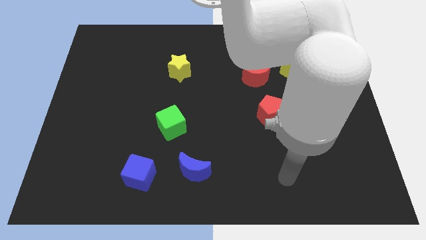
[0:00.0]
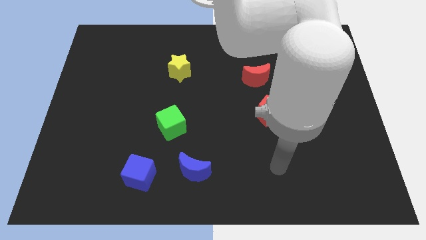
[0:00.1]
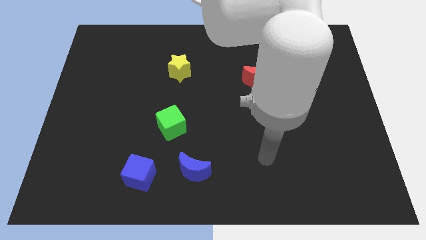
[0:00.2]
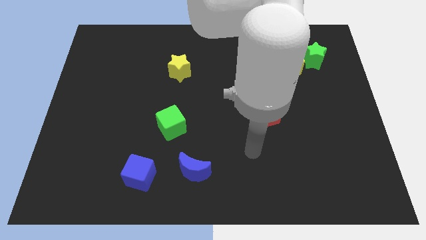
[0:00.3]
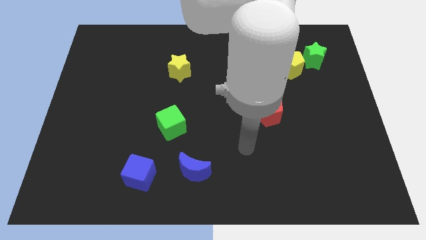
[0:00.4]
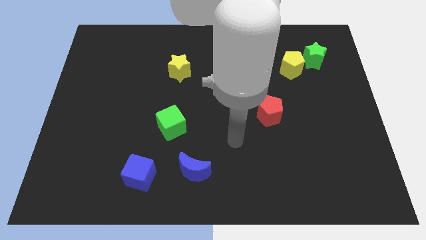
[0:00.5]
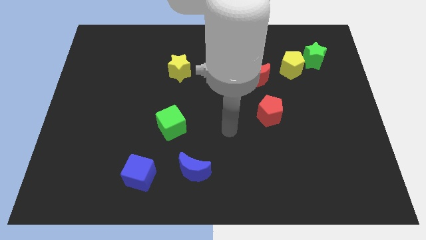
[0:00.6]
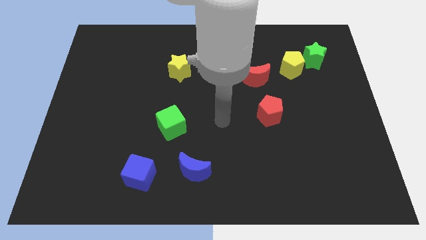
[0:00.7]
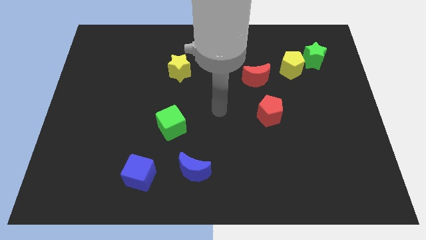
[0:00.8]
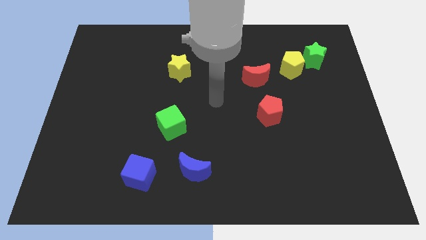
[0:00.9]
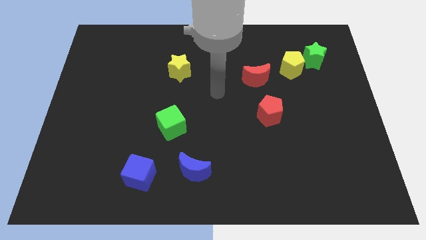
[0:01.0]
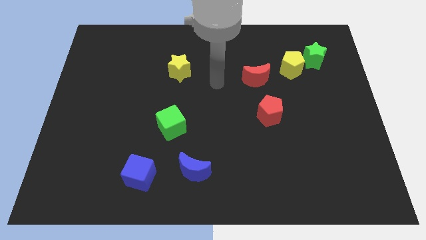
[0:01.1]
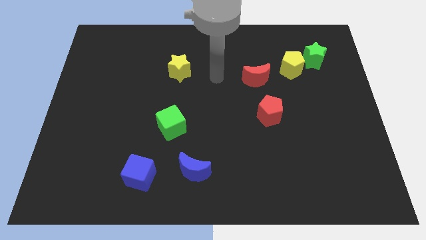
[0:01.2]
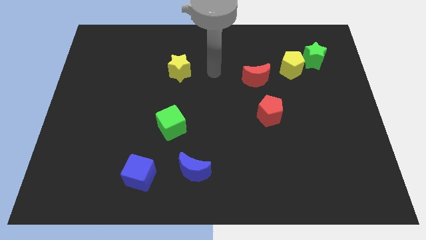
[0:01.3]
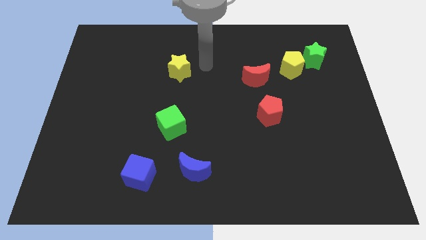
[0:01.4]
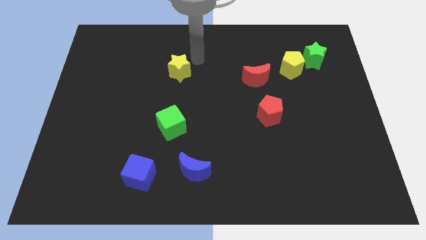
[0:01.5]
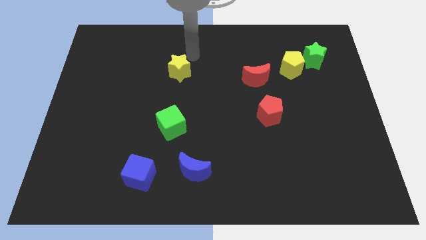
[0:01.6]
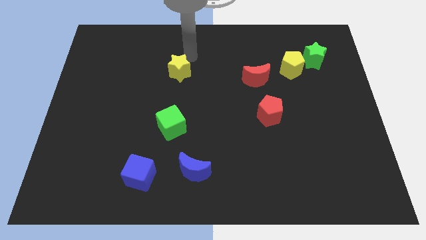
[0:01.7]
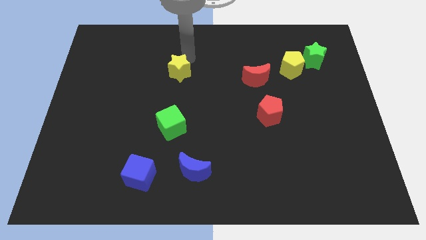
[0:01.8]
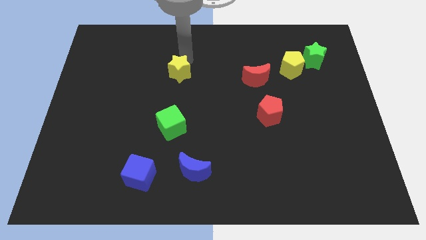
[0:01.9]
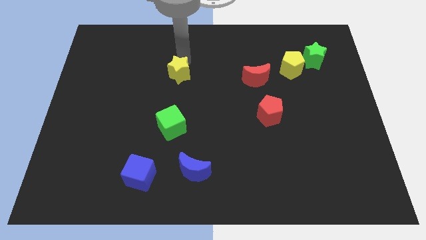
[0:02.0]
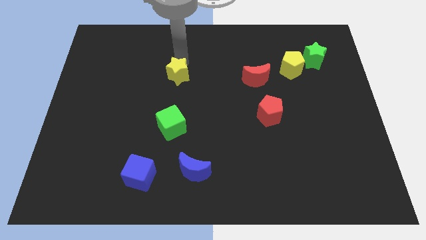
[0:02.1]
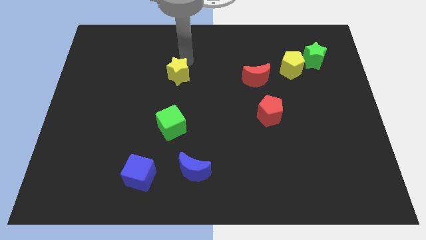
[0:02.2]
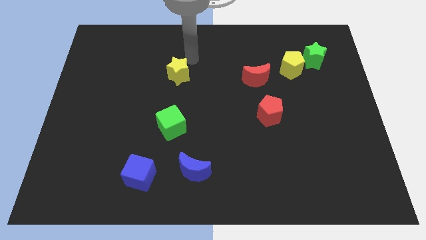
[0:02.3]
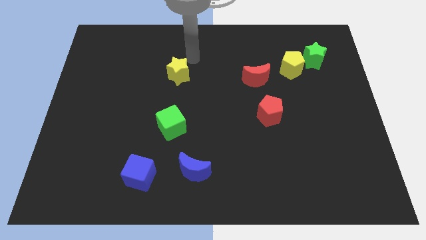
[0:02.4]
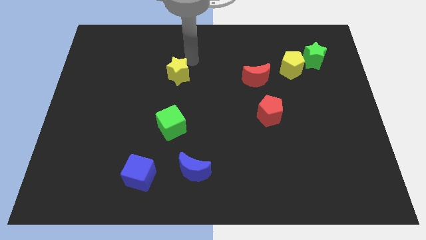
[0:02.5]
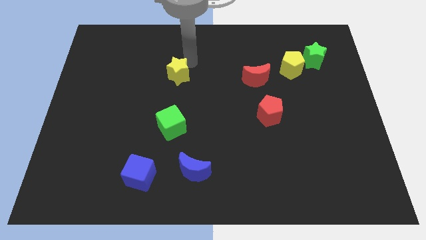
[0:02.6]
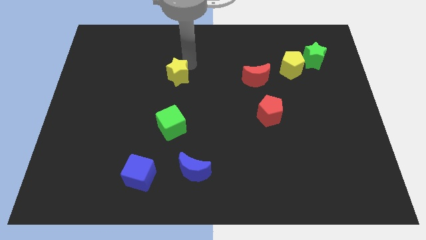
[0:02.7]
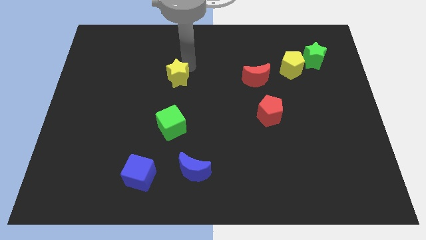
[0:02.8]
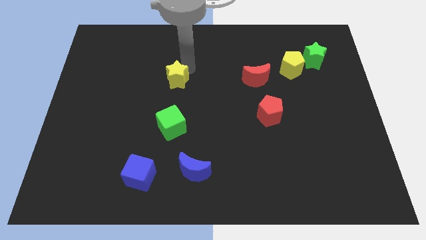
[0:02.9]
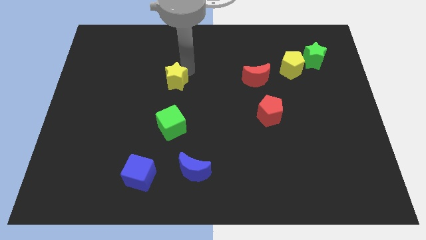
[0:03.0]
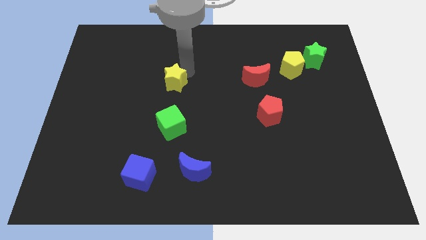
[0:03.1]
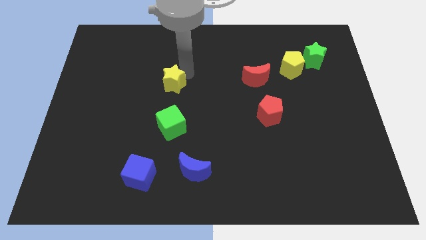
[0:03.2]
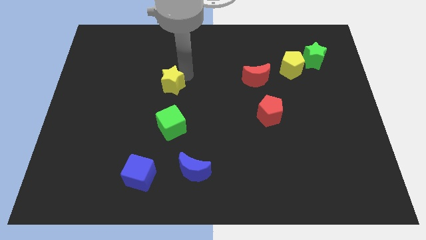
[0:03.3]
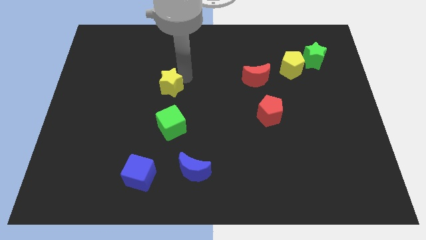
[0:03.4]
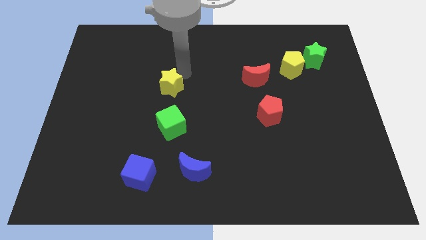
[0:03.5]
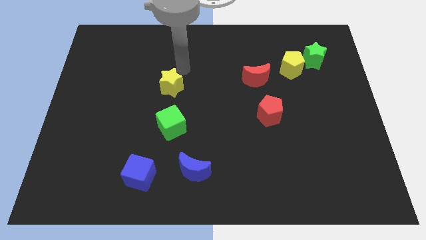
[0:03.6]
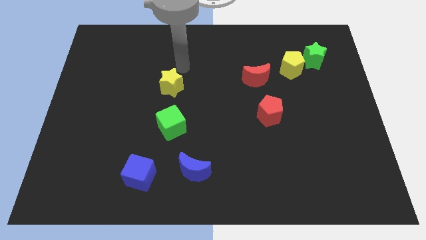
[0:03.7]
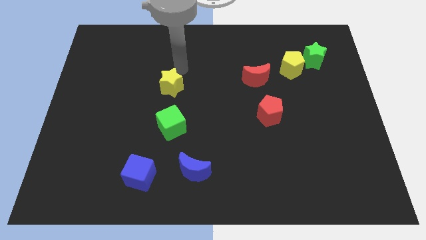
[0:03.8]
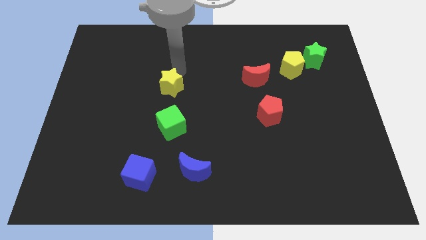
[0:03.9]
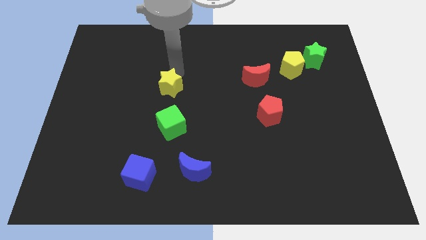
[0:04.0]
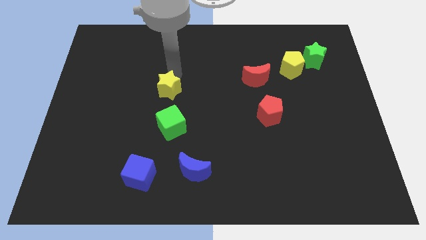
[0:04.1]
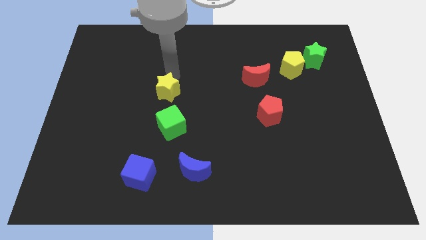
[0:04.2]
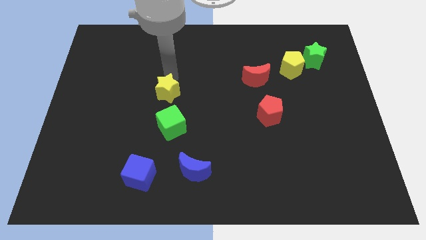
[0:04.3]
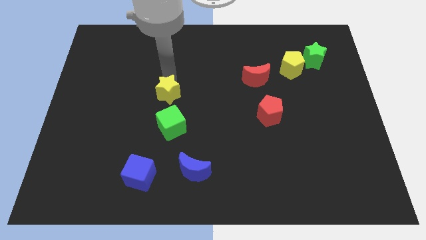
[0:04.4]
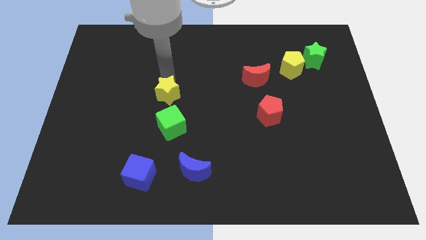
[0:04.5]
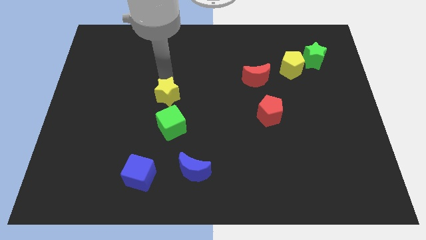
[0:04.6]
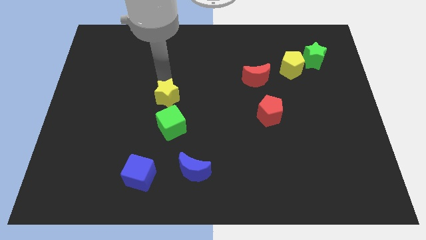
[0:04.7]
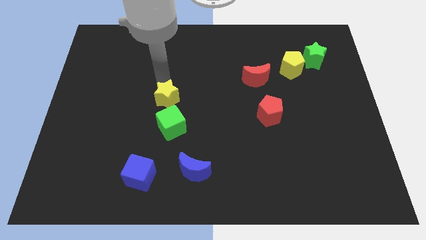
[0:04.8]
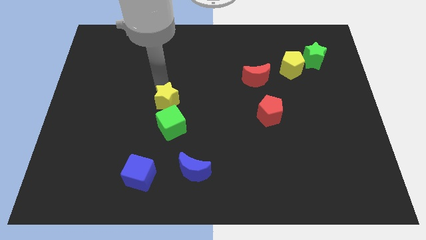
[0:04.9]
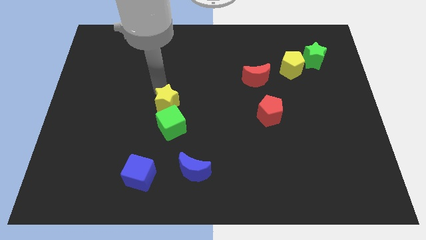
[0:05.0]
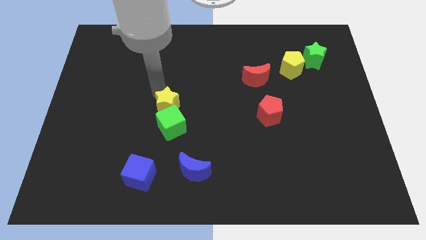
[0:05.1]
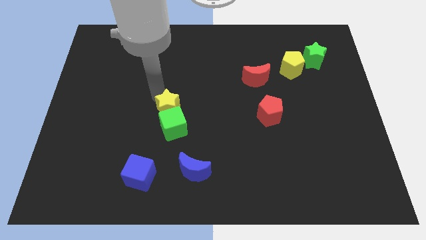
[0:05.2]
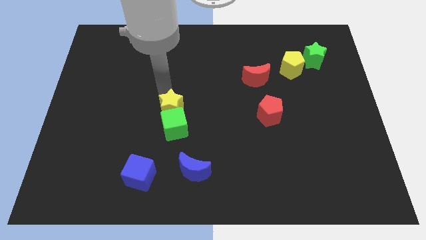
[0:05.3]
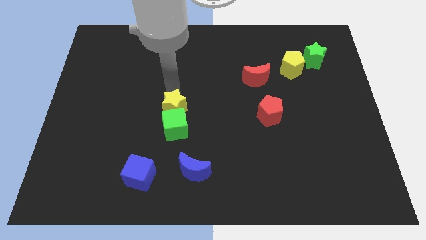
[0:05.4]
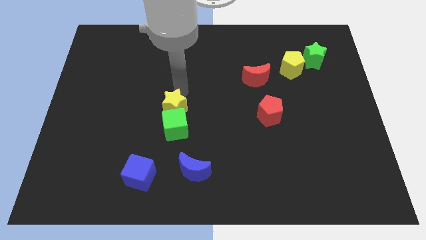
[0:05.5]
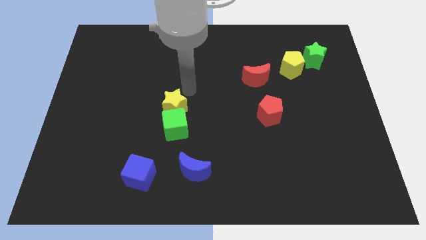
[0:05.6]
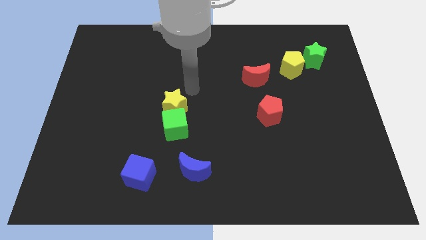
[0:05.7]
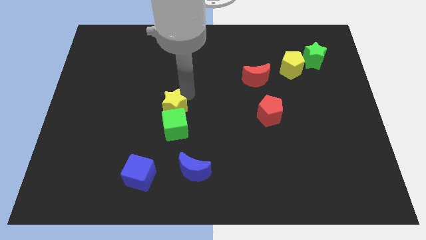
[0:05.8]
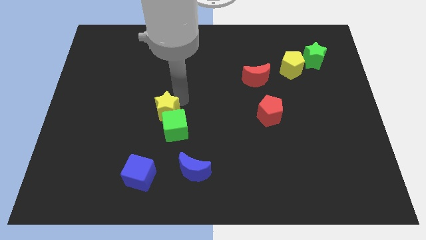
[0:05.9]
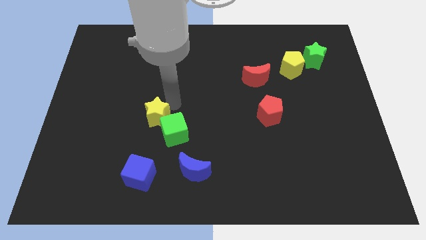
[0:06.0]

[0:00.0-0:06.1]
put the yellow star above the blue cube

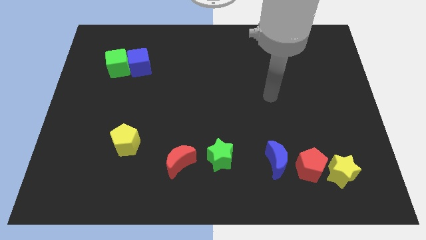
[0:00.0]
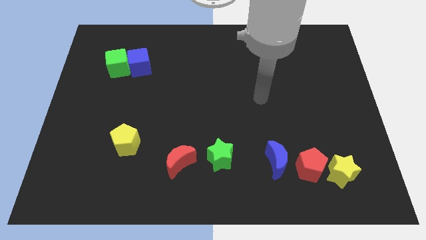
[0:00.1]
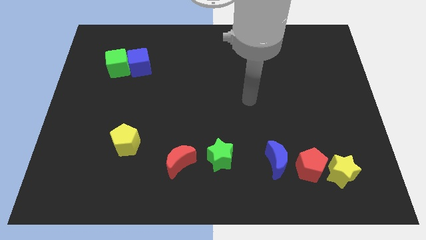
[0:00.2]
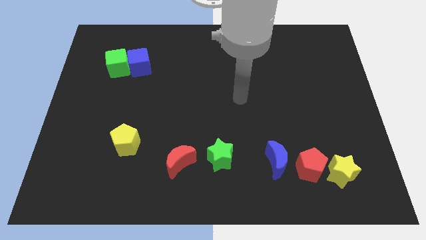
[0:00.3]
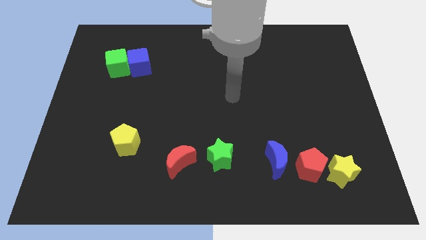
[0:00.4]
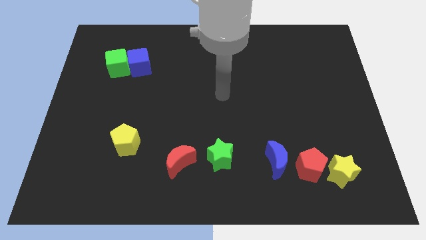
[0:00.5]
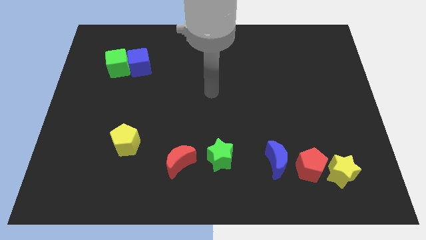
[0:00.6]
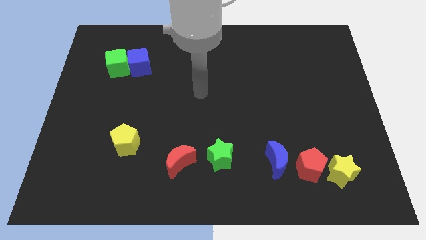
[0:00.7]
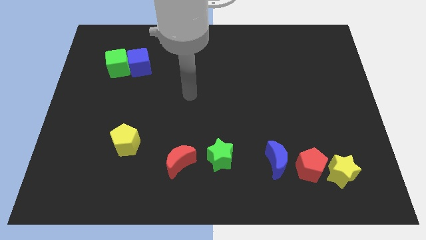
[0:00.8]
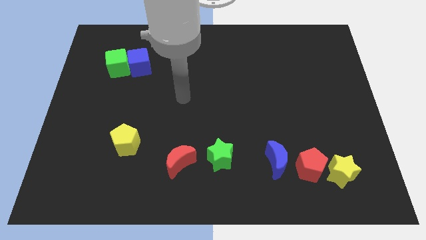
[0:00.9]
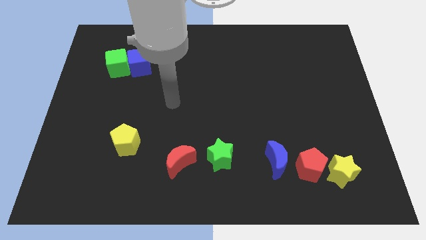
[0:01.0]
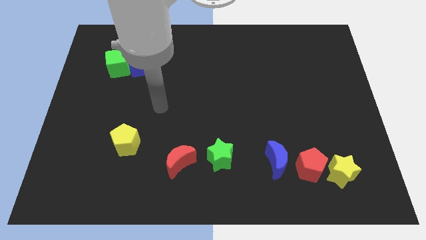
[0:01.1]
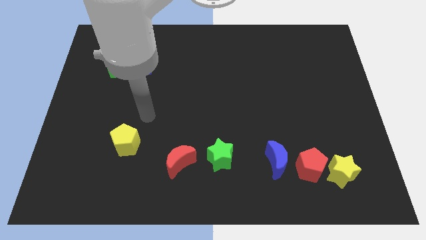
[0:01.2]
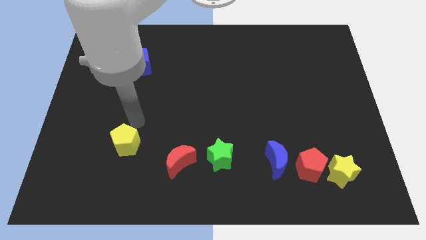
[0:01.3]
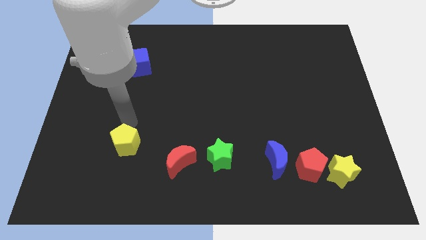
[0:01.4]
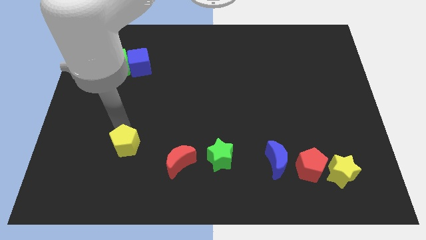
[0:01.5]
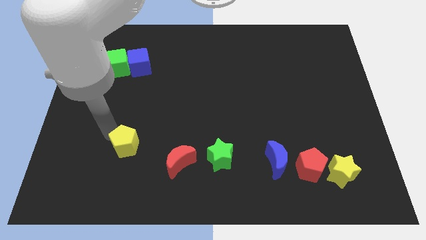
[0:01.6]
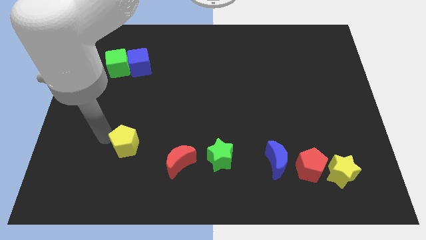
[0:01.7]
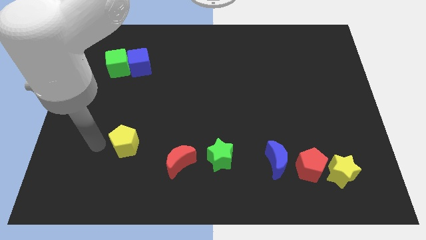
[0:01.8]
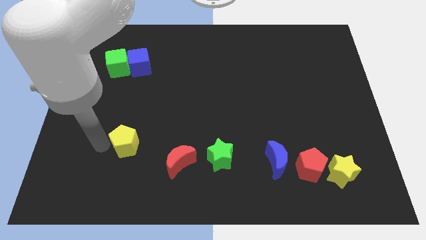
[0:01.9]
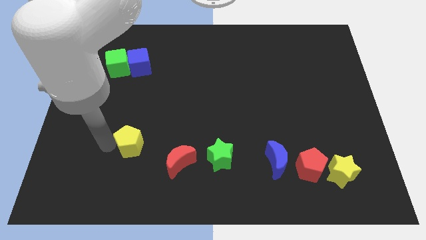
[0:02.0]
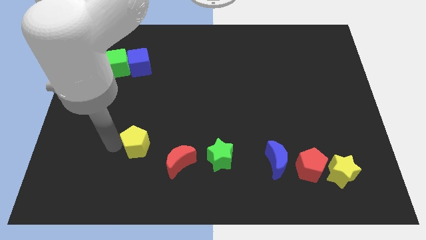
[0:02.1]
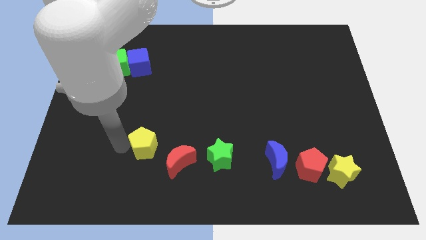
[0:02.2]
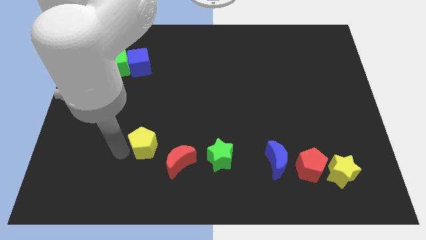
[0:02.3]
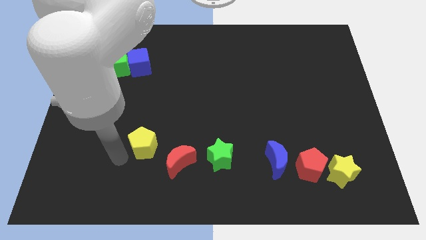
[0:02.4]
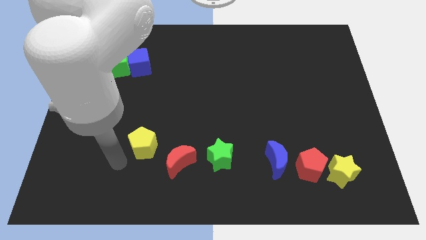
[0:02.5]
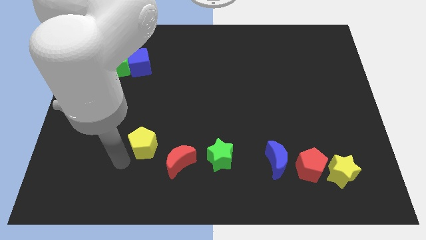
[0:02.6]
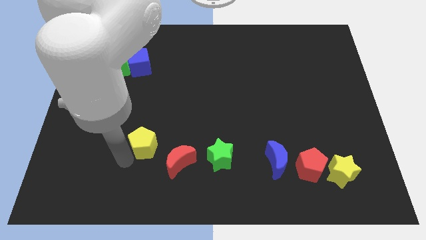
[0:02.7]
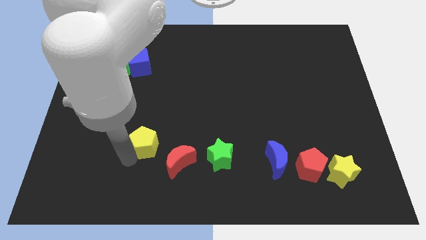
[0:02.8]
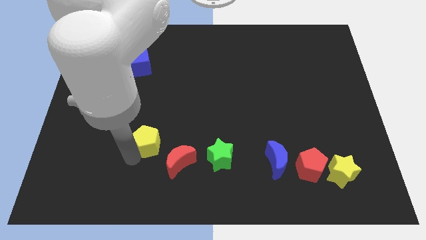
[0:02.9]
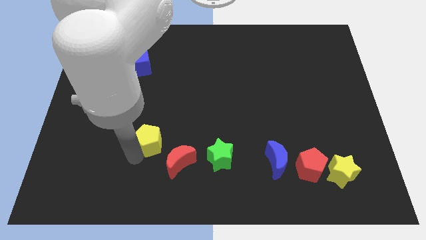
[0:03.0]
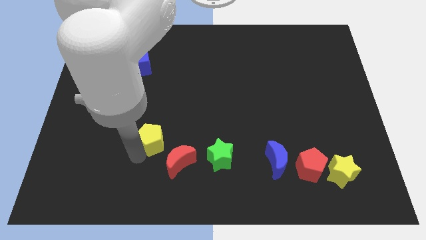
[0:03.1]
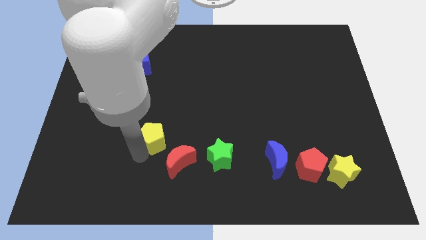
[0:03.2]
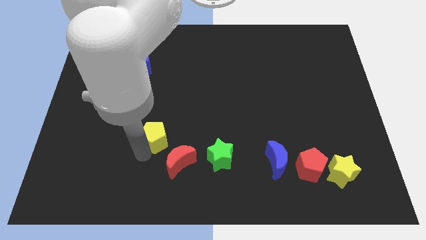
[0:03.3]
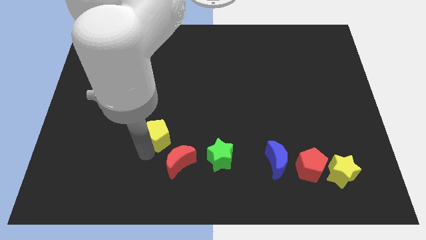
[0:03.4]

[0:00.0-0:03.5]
move the yellow pentagon to the top side of the red moon
